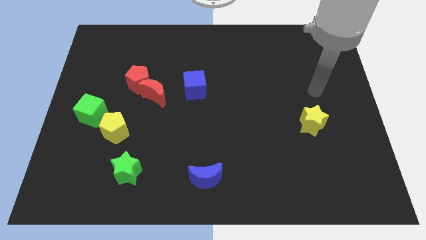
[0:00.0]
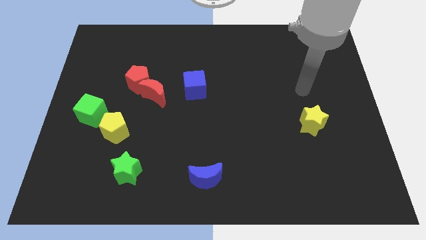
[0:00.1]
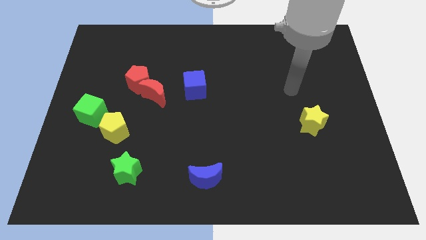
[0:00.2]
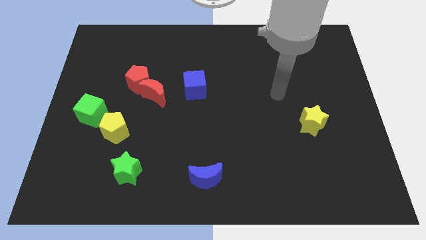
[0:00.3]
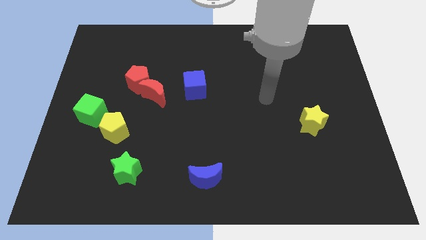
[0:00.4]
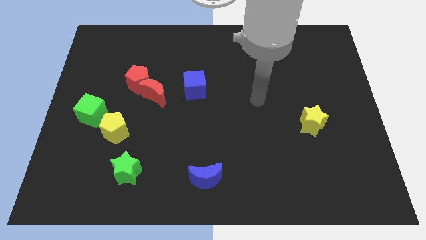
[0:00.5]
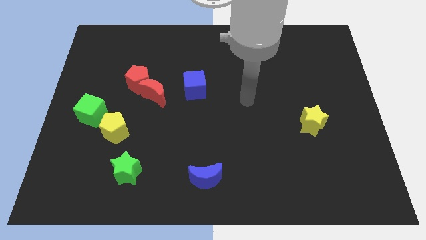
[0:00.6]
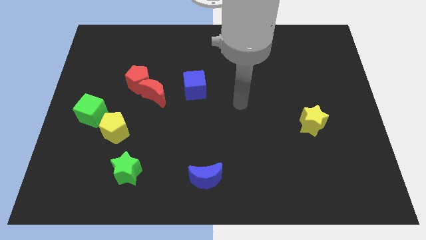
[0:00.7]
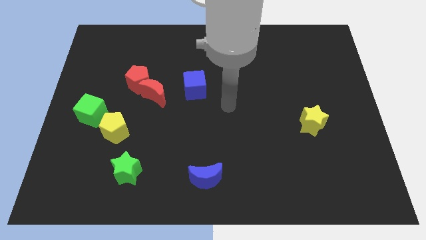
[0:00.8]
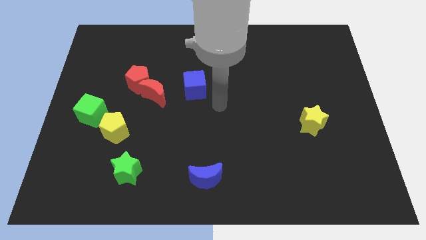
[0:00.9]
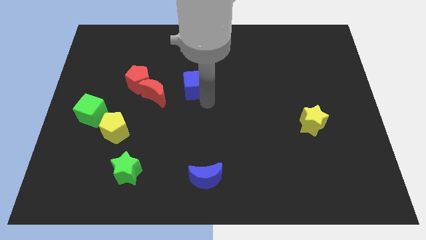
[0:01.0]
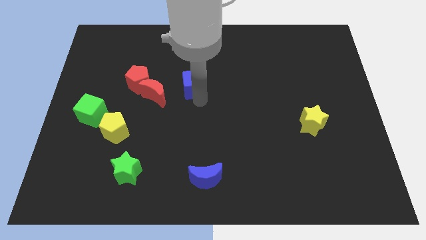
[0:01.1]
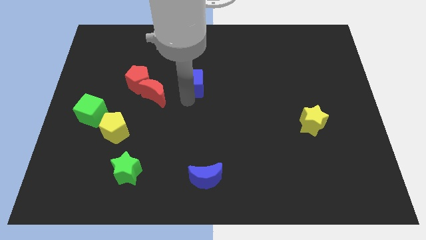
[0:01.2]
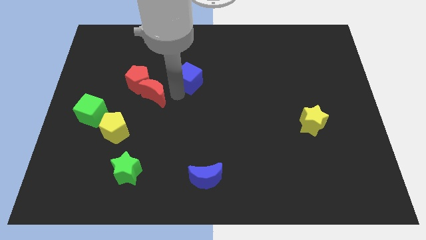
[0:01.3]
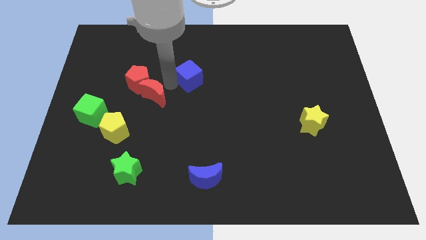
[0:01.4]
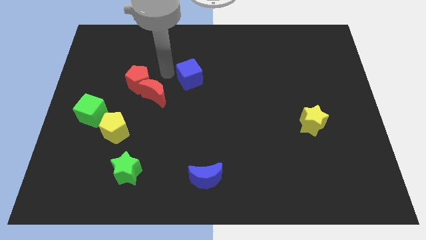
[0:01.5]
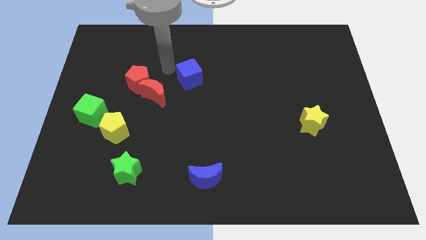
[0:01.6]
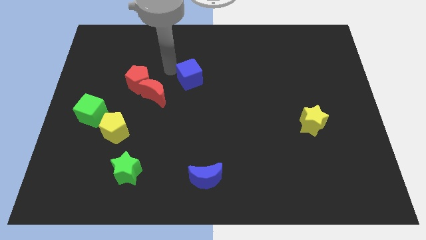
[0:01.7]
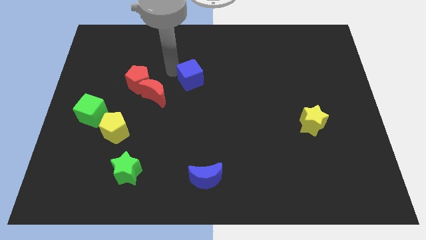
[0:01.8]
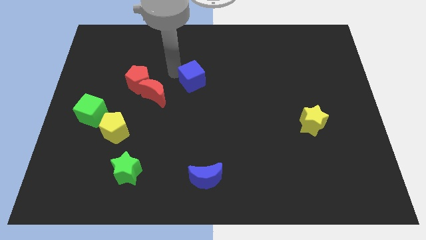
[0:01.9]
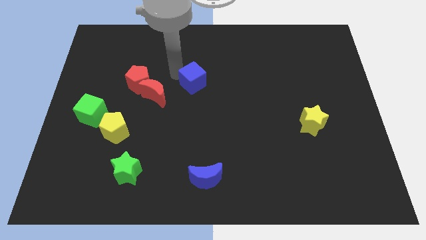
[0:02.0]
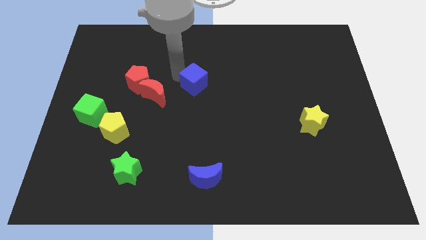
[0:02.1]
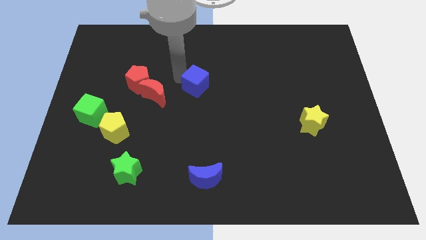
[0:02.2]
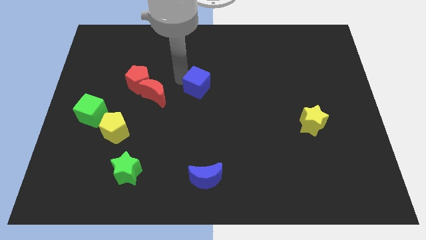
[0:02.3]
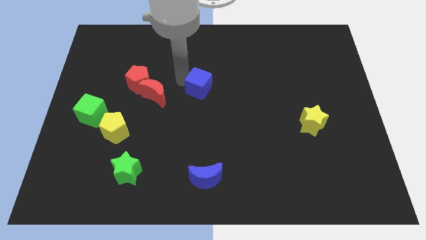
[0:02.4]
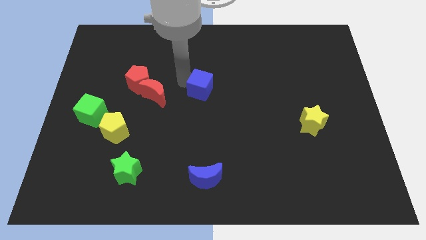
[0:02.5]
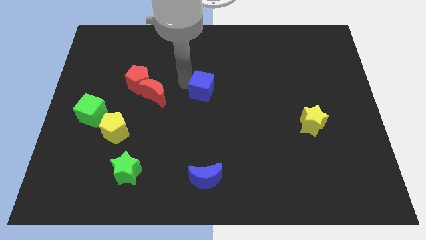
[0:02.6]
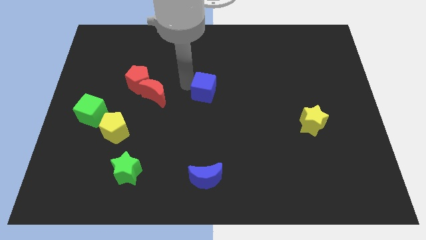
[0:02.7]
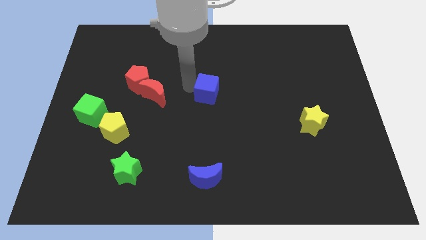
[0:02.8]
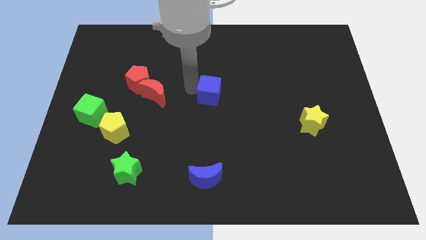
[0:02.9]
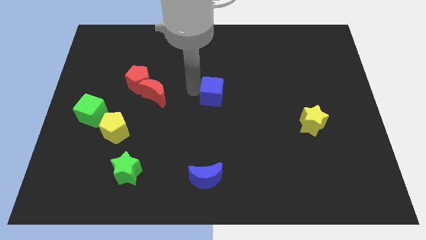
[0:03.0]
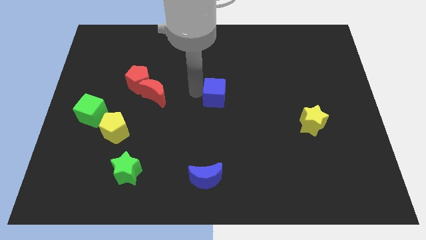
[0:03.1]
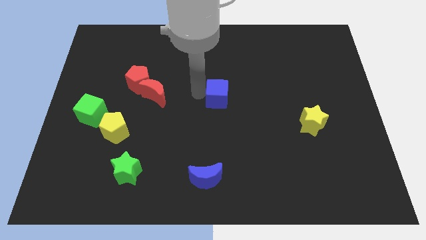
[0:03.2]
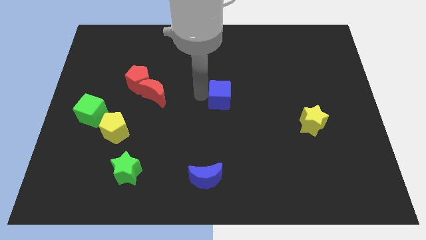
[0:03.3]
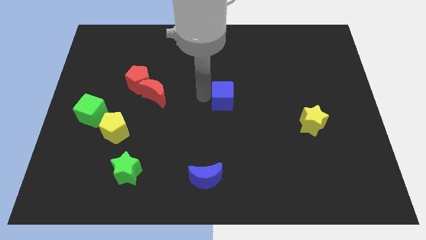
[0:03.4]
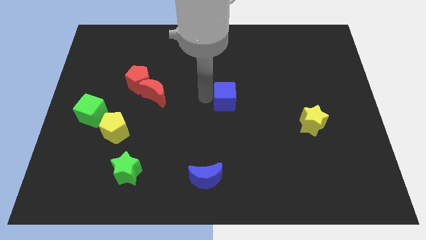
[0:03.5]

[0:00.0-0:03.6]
slide the blue cube somewhat right

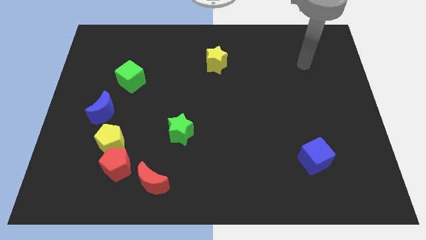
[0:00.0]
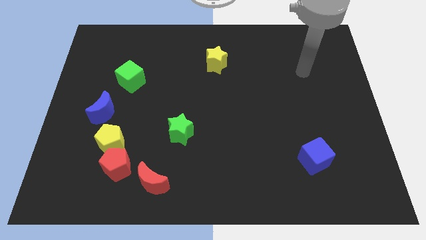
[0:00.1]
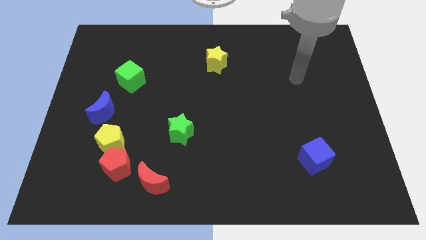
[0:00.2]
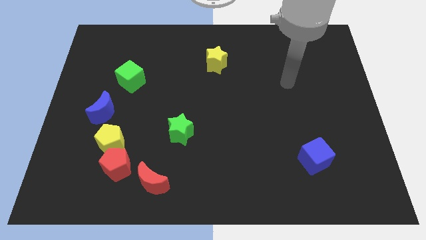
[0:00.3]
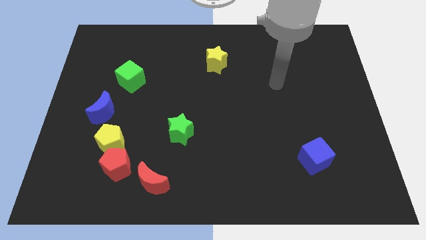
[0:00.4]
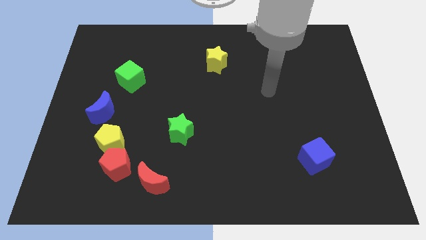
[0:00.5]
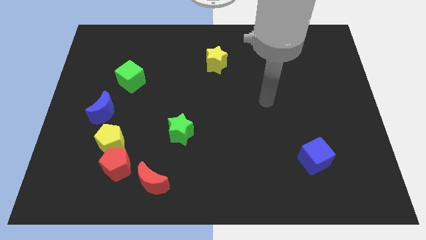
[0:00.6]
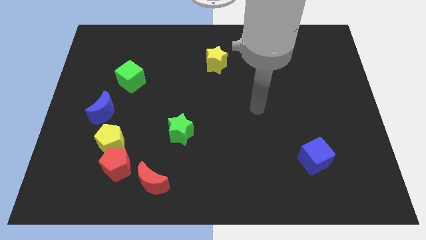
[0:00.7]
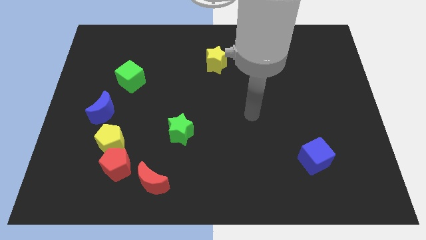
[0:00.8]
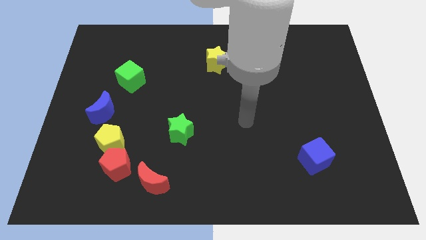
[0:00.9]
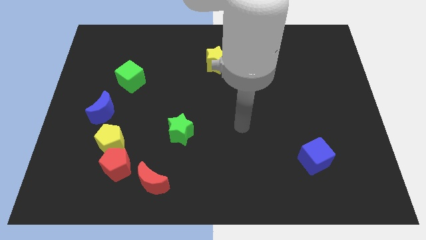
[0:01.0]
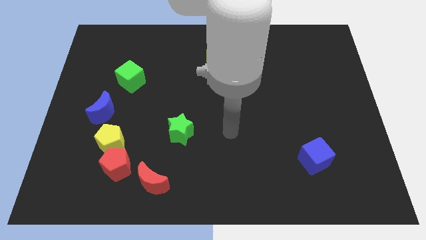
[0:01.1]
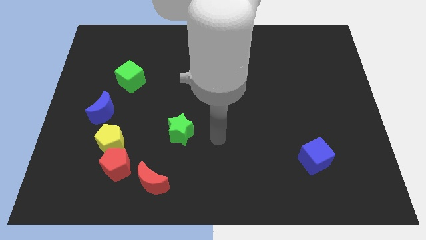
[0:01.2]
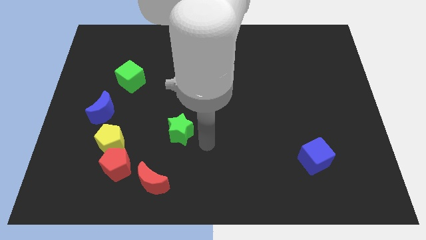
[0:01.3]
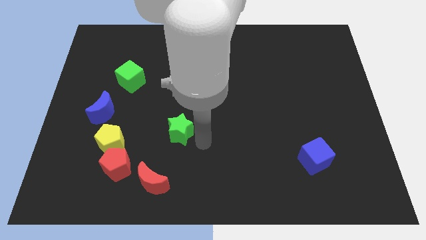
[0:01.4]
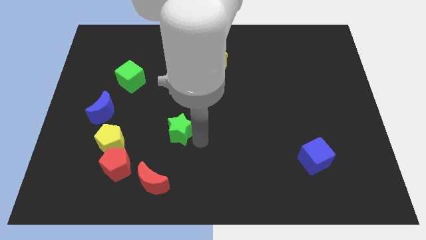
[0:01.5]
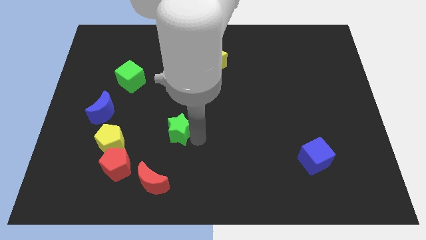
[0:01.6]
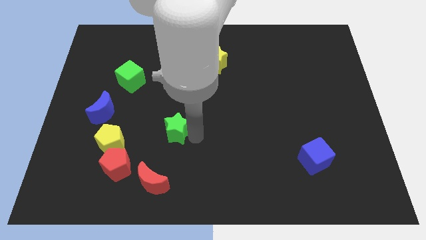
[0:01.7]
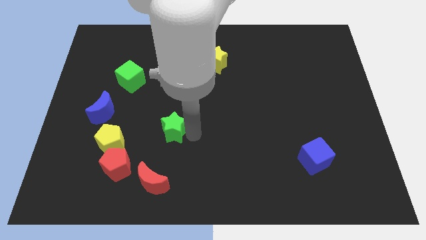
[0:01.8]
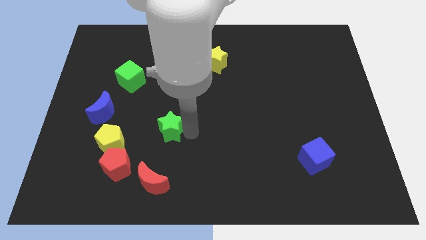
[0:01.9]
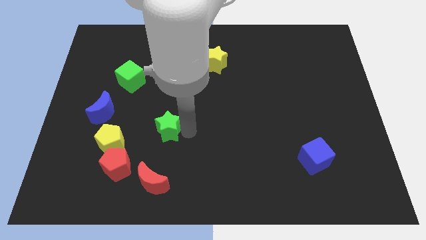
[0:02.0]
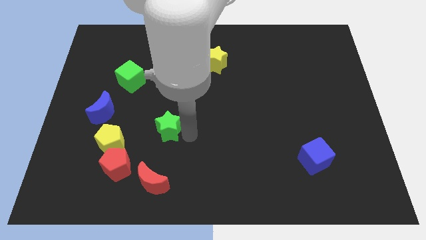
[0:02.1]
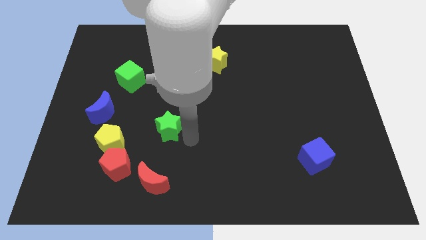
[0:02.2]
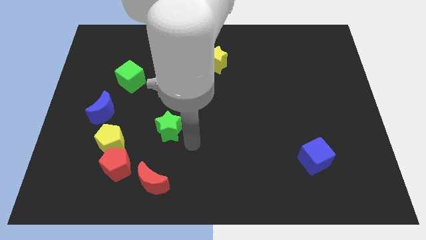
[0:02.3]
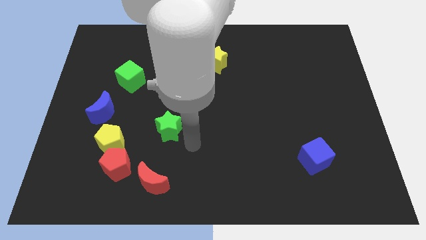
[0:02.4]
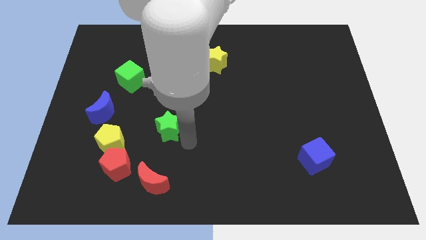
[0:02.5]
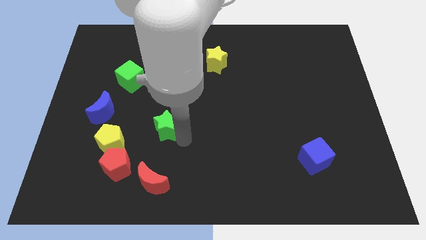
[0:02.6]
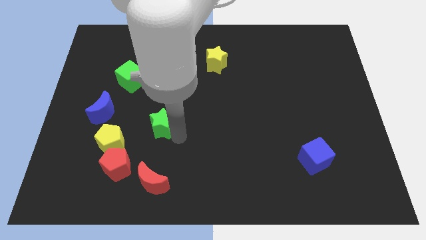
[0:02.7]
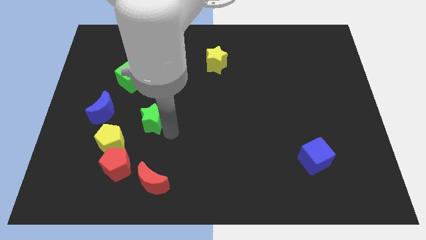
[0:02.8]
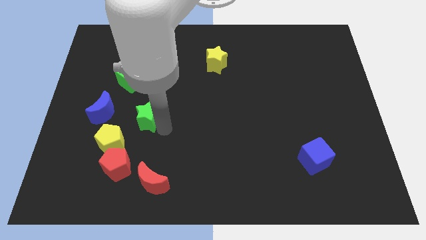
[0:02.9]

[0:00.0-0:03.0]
slightly slide the green star to the left

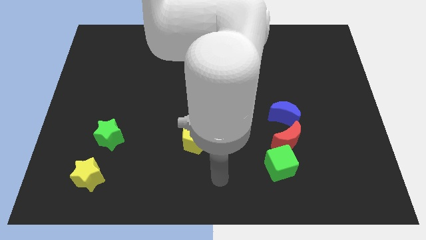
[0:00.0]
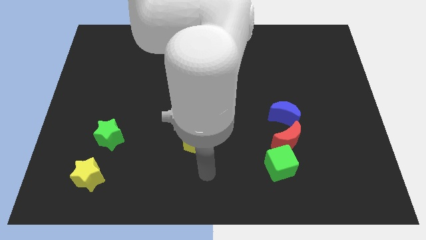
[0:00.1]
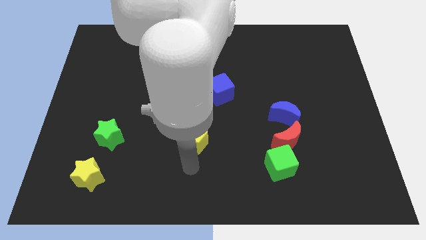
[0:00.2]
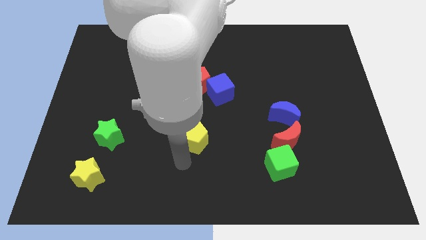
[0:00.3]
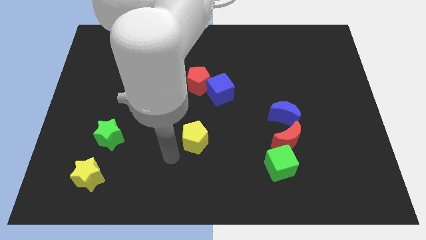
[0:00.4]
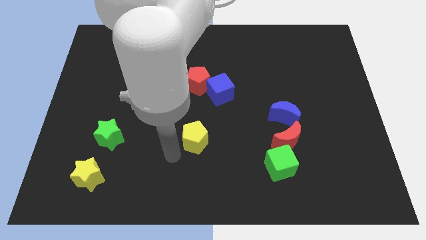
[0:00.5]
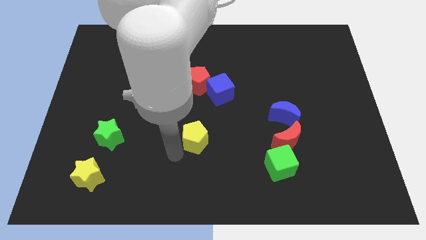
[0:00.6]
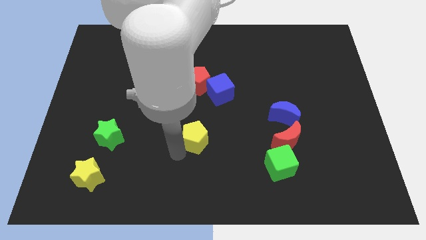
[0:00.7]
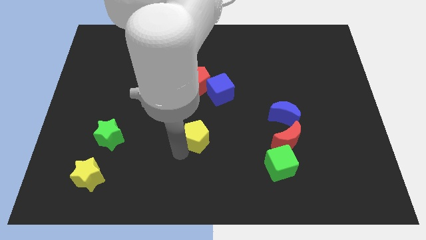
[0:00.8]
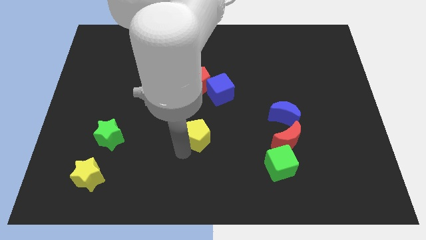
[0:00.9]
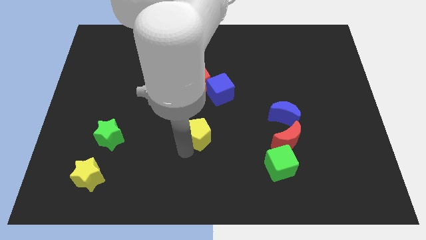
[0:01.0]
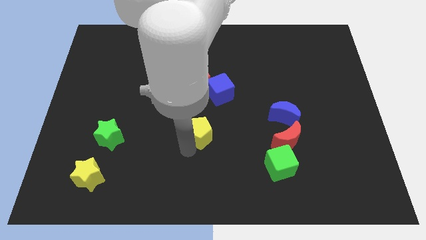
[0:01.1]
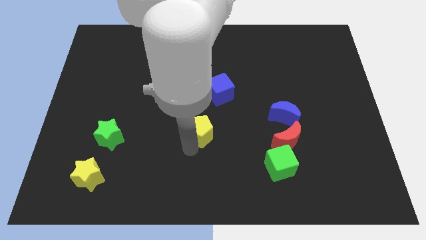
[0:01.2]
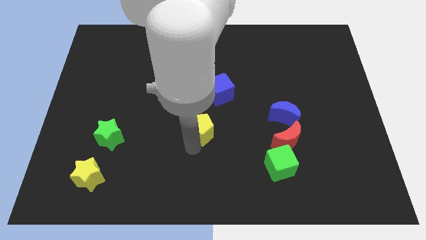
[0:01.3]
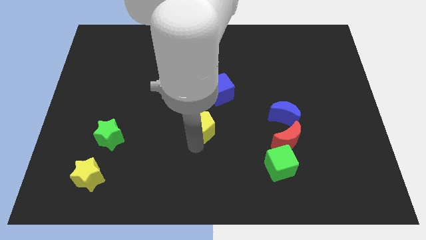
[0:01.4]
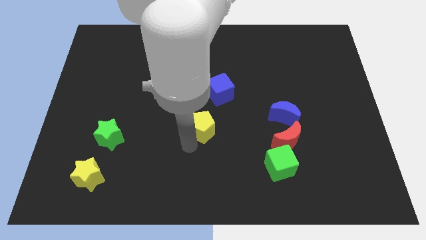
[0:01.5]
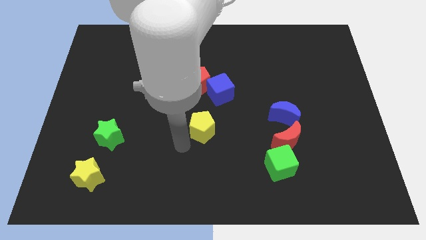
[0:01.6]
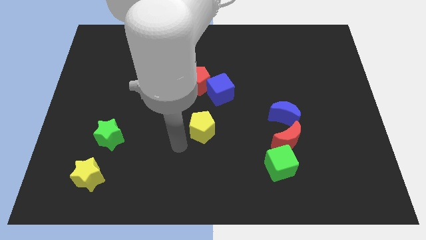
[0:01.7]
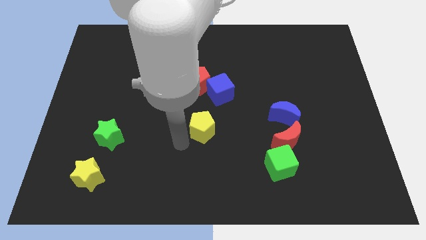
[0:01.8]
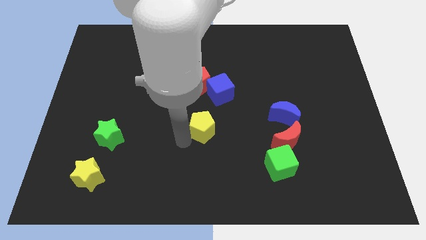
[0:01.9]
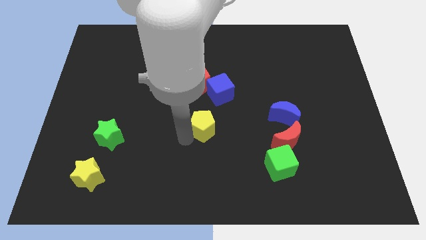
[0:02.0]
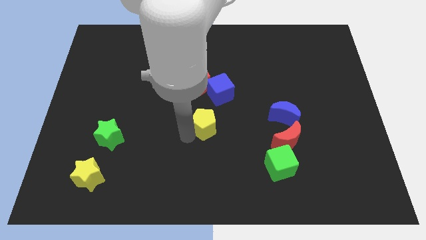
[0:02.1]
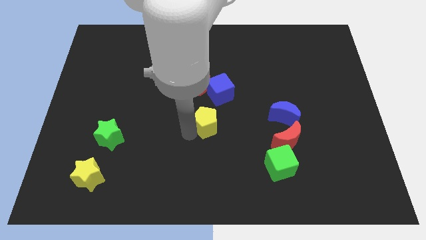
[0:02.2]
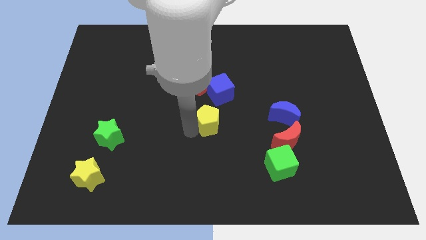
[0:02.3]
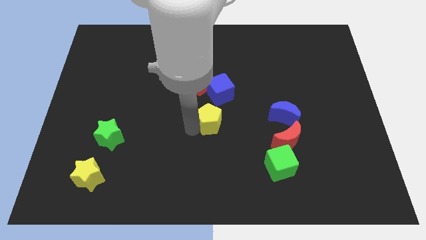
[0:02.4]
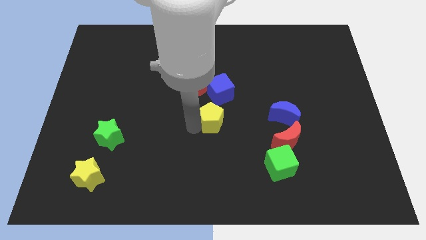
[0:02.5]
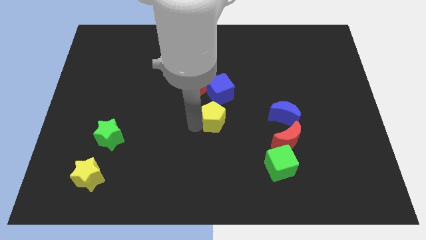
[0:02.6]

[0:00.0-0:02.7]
push the yellow pentagon diagonally upwards and right somewhat
